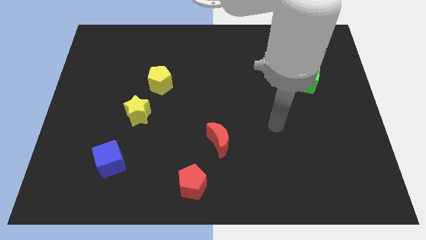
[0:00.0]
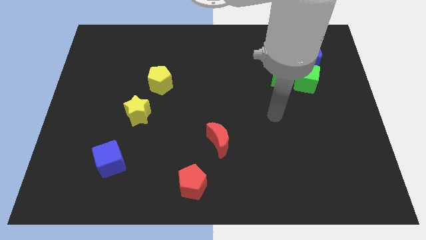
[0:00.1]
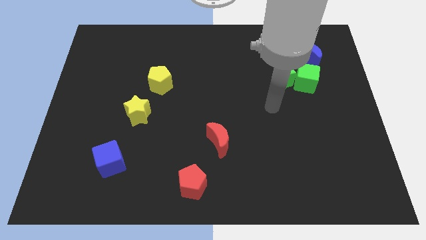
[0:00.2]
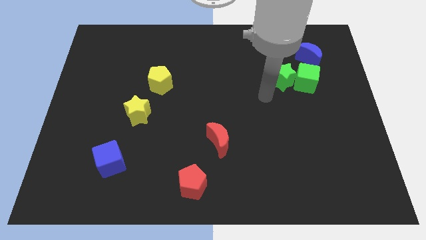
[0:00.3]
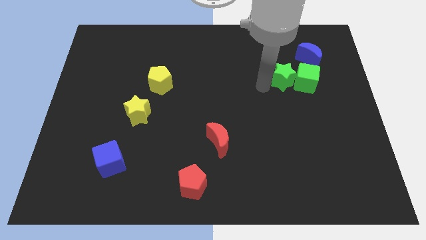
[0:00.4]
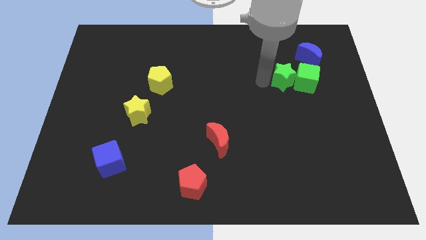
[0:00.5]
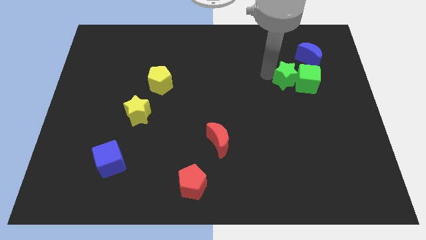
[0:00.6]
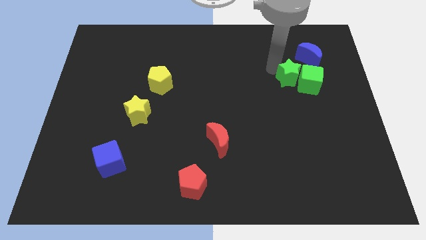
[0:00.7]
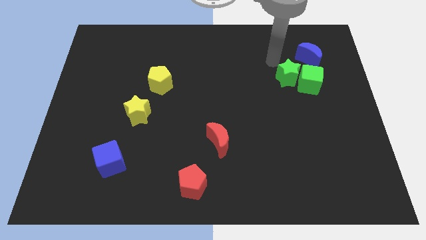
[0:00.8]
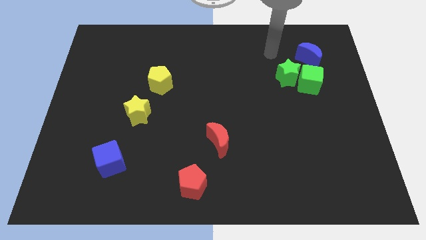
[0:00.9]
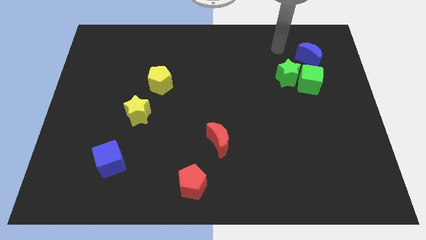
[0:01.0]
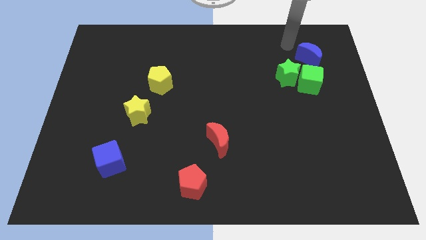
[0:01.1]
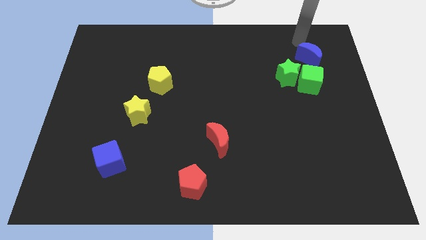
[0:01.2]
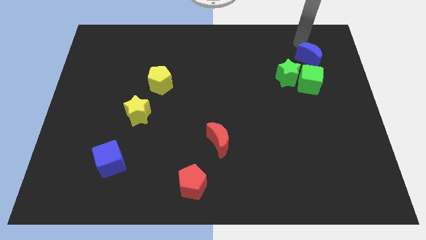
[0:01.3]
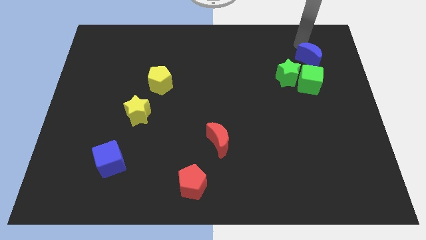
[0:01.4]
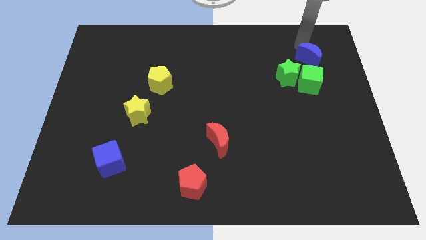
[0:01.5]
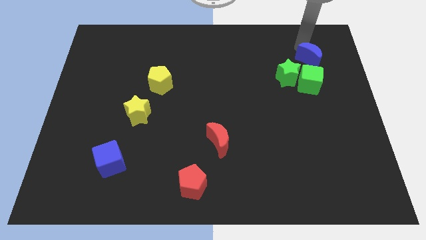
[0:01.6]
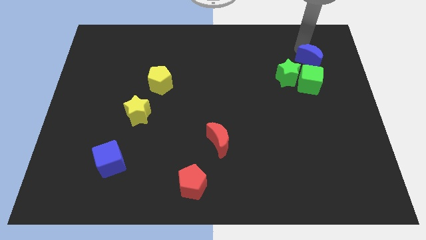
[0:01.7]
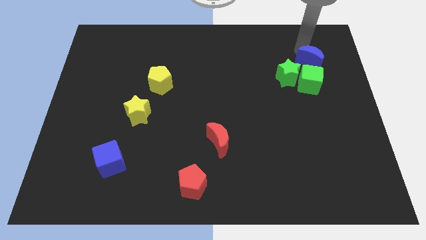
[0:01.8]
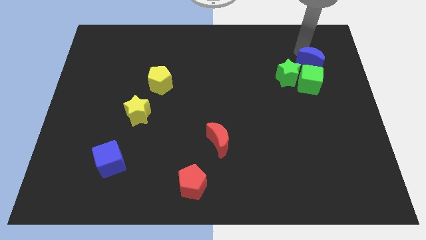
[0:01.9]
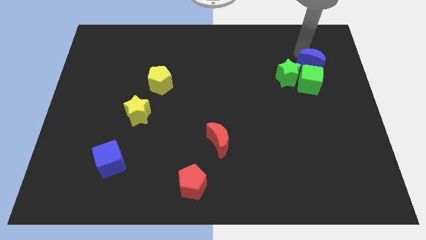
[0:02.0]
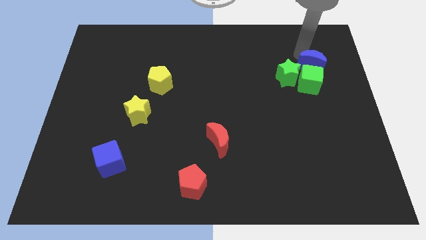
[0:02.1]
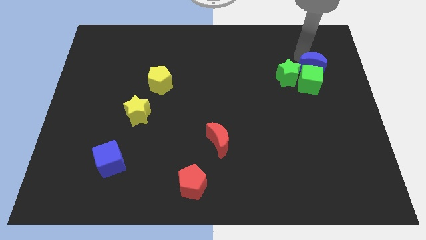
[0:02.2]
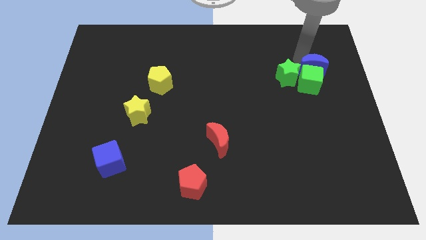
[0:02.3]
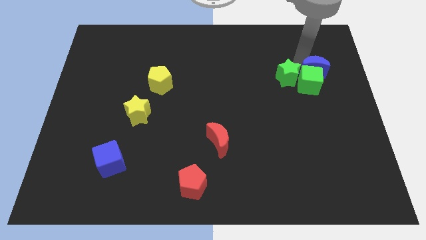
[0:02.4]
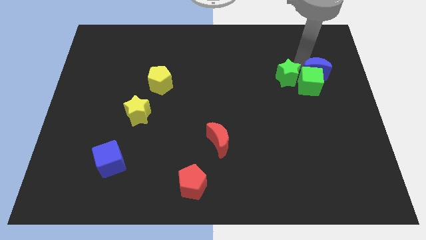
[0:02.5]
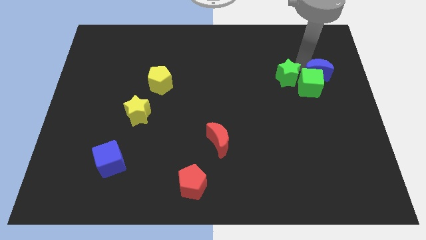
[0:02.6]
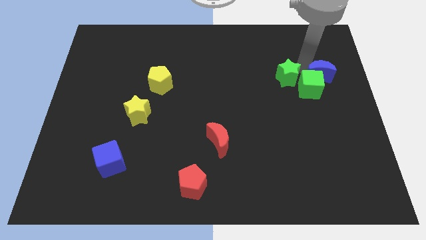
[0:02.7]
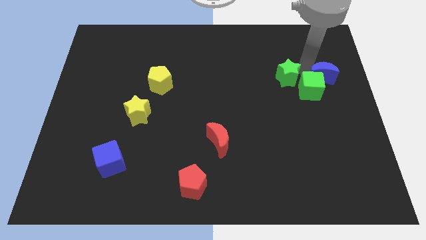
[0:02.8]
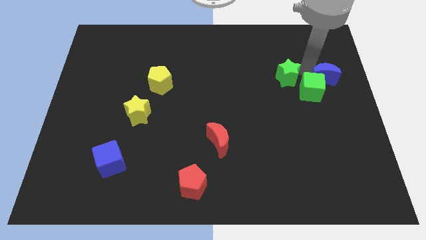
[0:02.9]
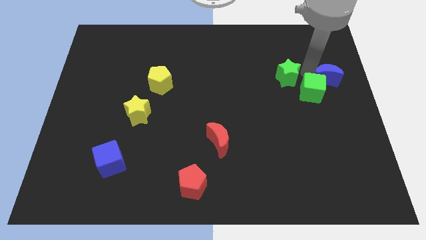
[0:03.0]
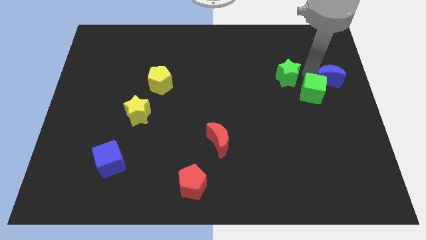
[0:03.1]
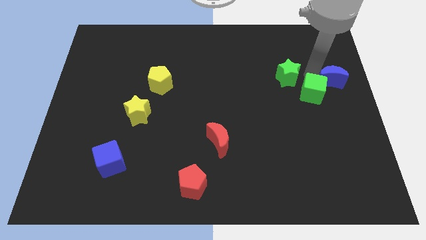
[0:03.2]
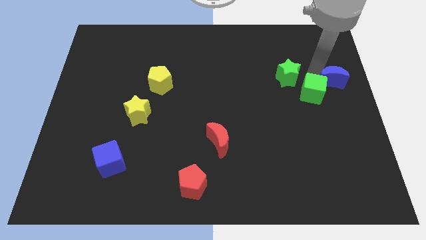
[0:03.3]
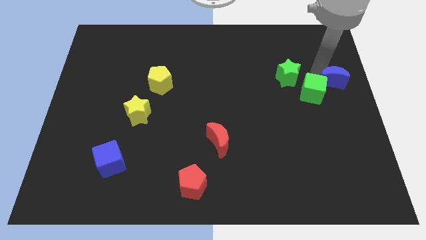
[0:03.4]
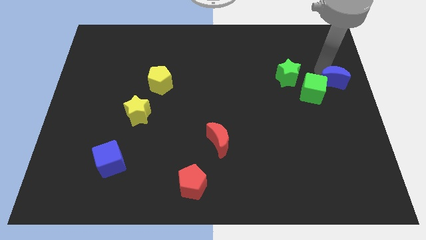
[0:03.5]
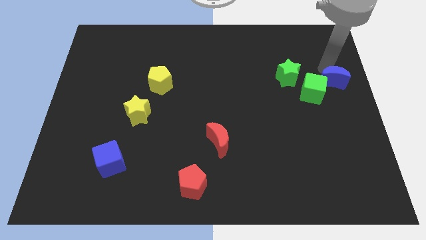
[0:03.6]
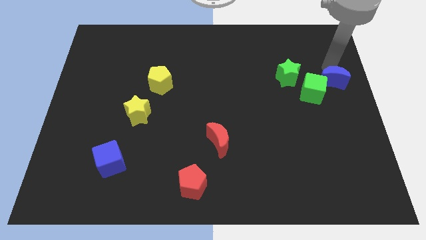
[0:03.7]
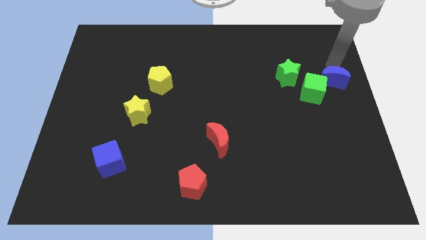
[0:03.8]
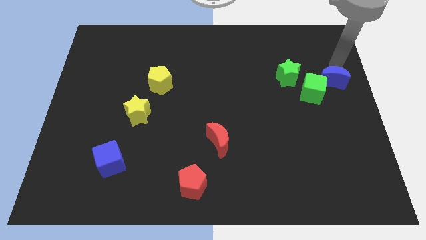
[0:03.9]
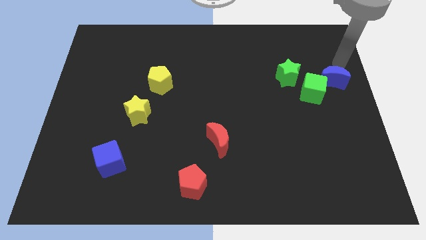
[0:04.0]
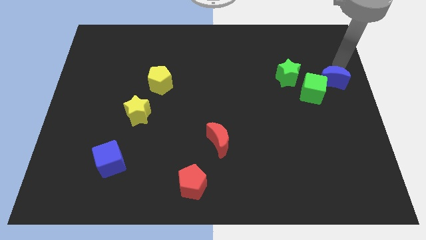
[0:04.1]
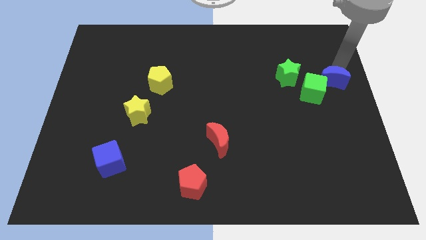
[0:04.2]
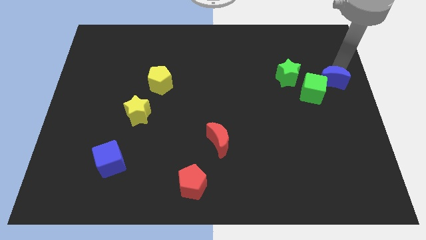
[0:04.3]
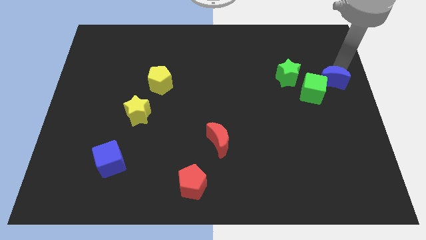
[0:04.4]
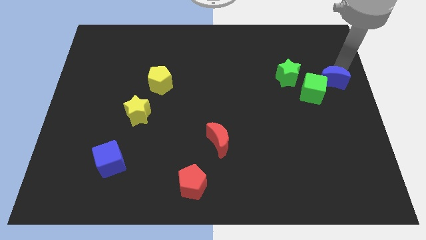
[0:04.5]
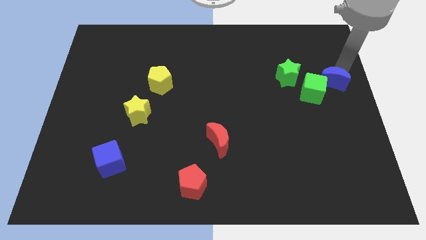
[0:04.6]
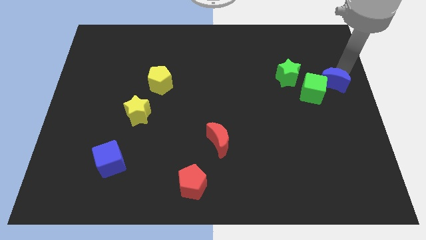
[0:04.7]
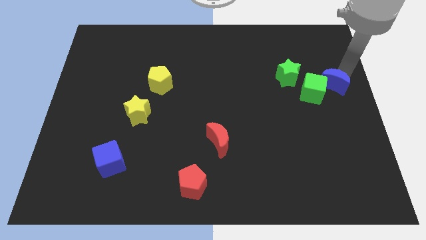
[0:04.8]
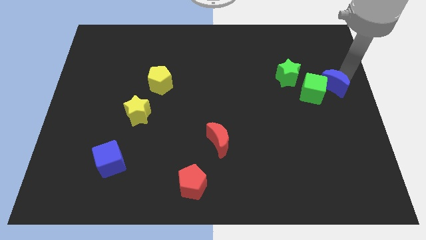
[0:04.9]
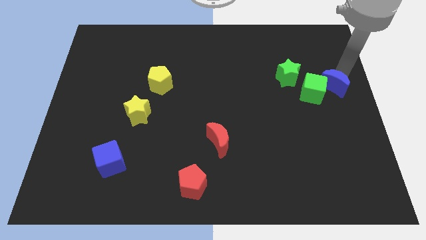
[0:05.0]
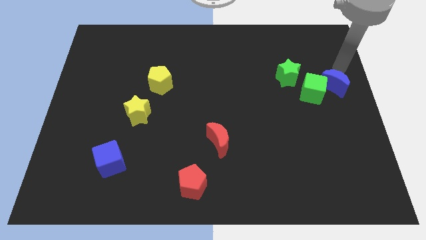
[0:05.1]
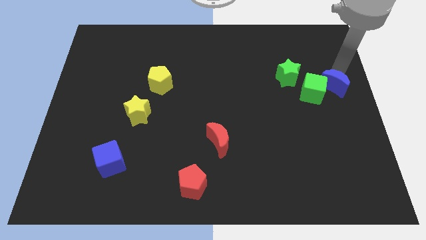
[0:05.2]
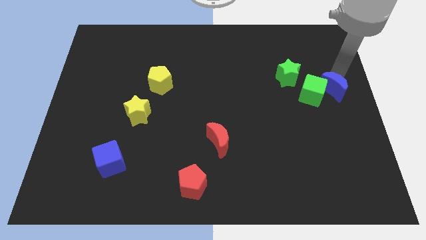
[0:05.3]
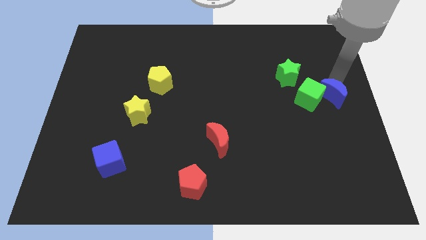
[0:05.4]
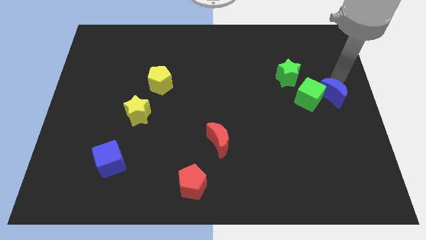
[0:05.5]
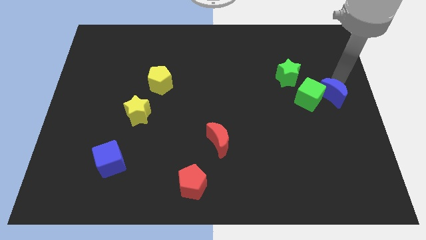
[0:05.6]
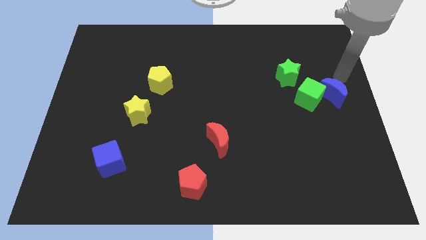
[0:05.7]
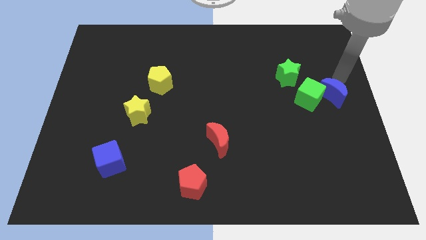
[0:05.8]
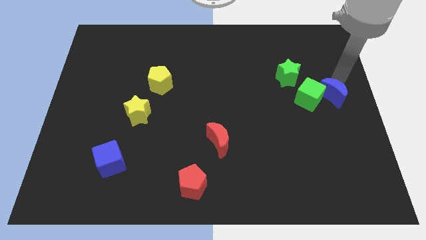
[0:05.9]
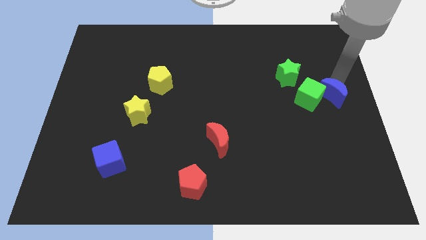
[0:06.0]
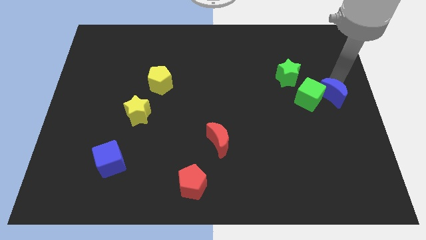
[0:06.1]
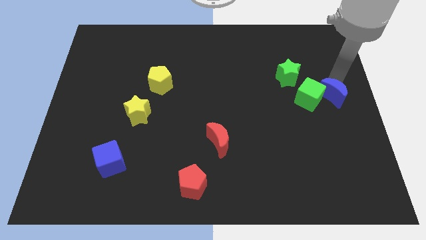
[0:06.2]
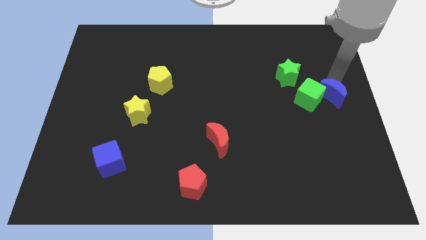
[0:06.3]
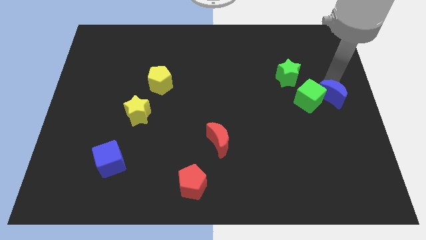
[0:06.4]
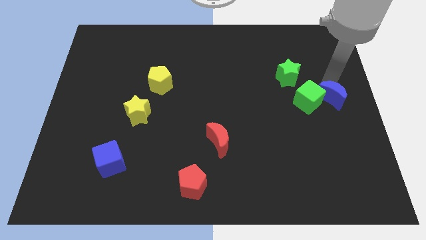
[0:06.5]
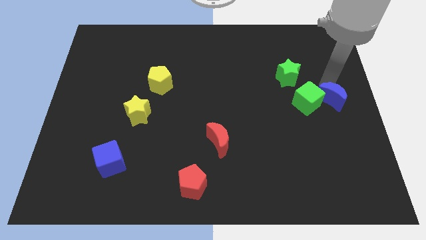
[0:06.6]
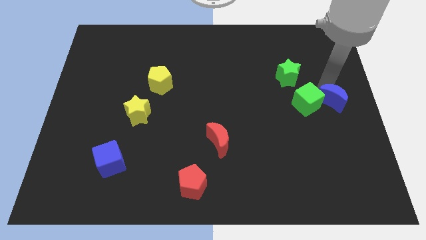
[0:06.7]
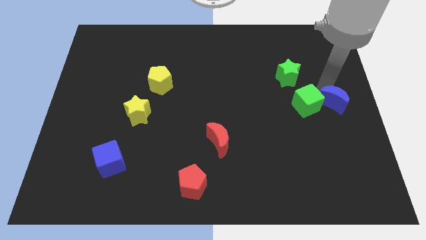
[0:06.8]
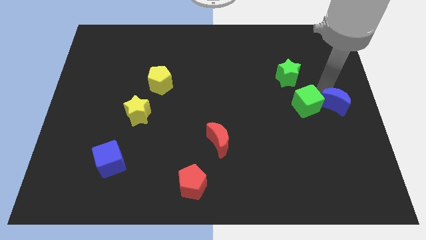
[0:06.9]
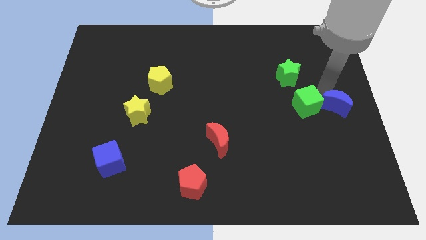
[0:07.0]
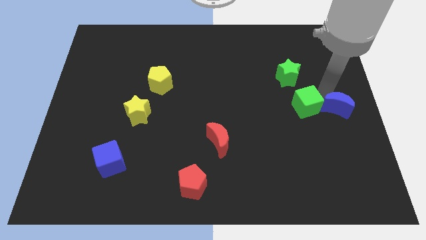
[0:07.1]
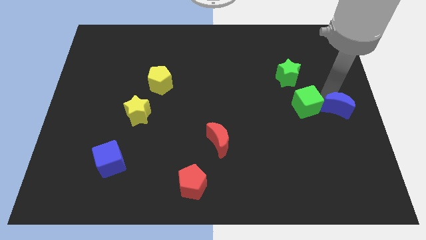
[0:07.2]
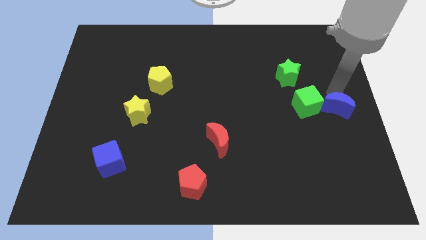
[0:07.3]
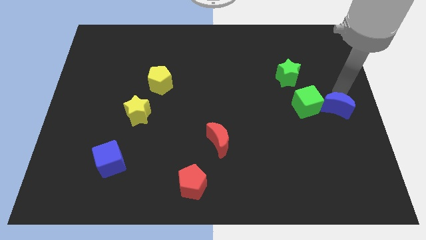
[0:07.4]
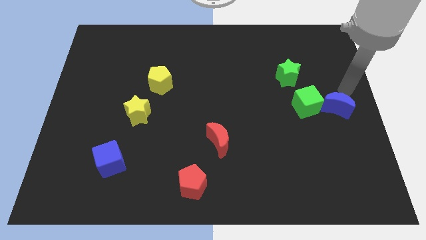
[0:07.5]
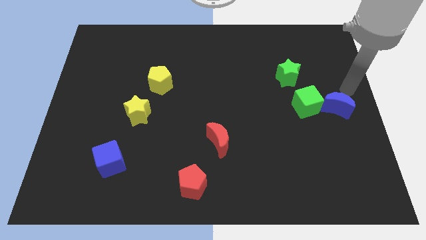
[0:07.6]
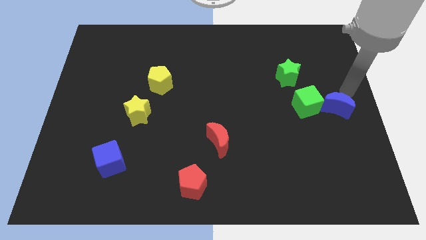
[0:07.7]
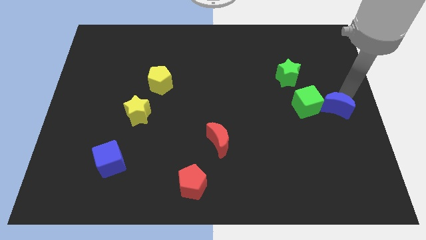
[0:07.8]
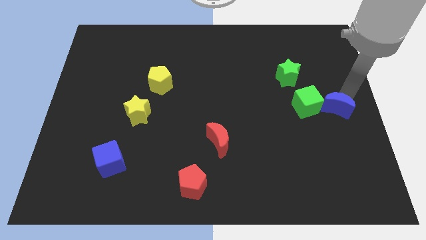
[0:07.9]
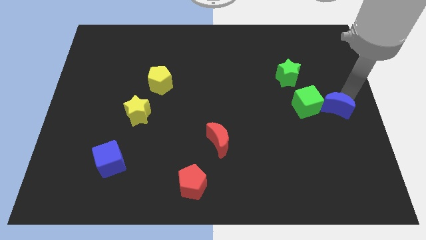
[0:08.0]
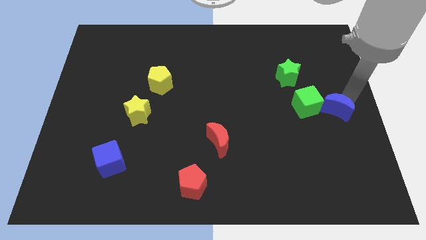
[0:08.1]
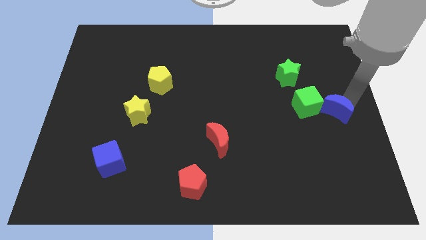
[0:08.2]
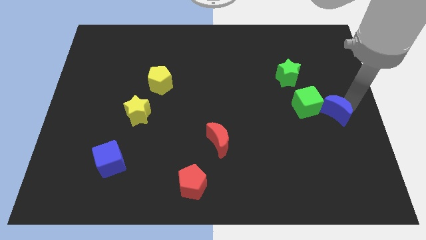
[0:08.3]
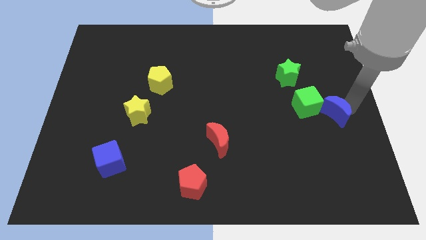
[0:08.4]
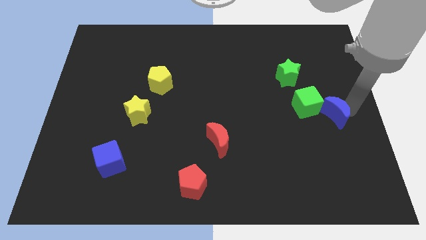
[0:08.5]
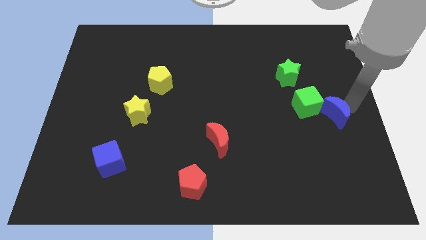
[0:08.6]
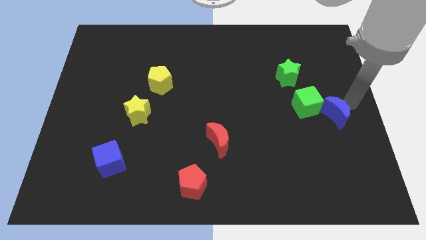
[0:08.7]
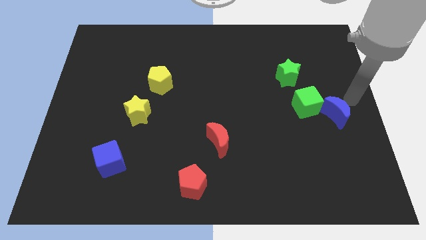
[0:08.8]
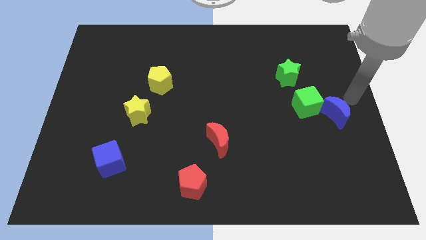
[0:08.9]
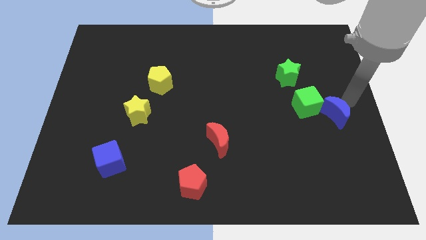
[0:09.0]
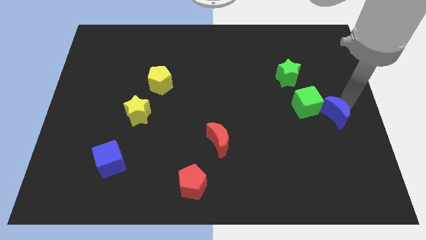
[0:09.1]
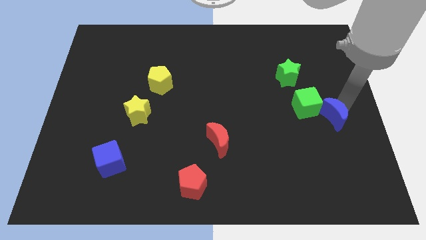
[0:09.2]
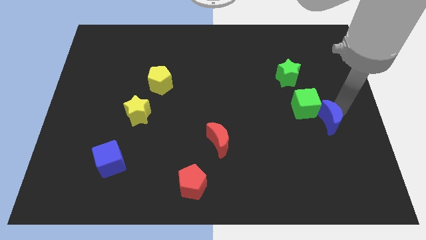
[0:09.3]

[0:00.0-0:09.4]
slide the blue moon downwards
